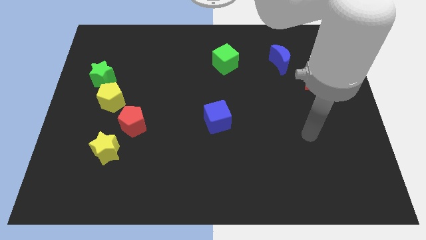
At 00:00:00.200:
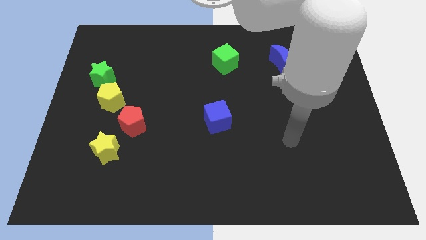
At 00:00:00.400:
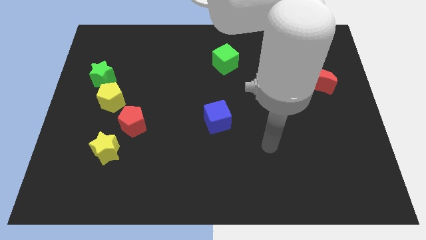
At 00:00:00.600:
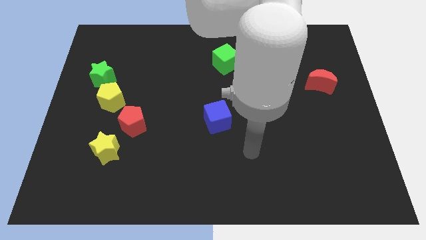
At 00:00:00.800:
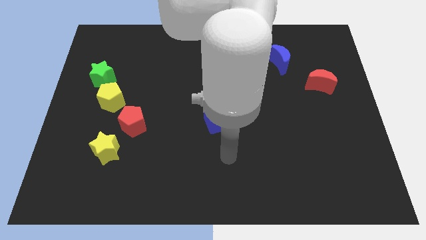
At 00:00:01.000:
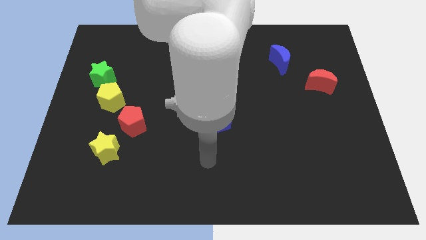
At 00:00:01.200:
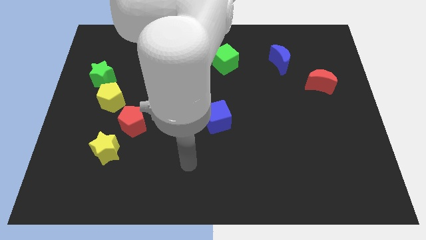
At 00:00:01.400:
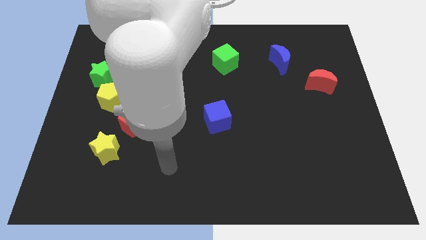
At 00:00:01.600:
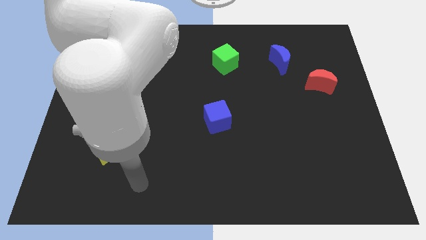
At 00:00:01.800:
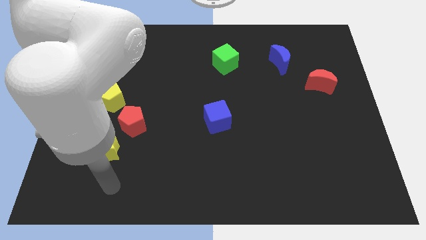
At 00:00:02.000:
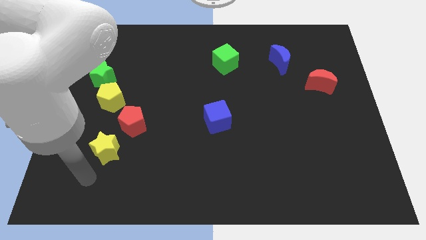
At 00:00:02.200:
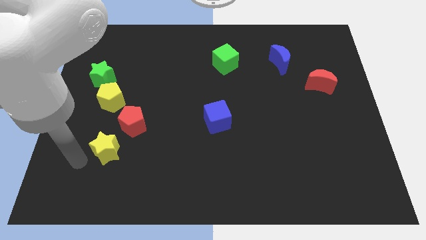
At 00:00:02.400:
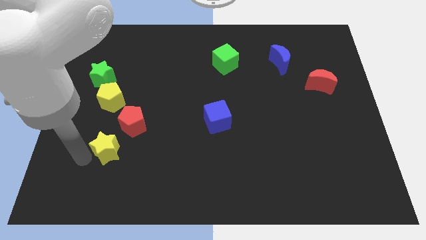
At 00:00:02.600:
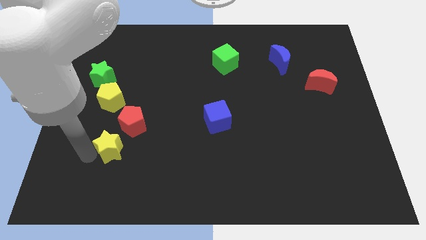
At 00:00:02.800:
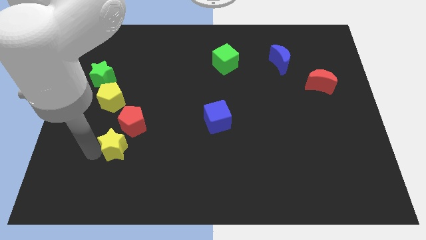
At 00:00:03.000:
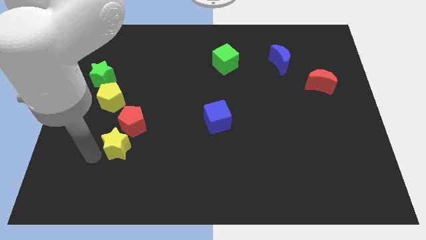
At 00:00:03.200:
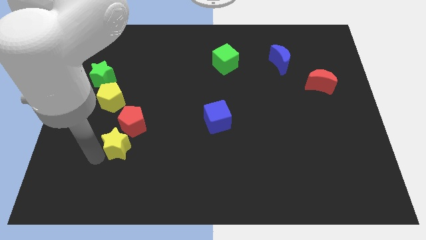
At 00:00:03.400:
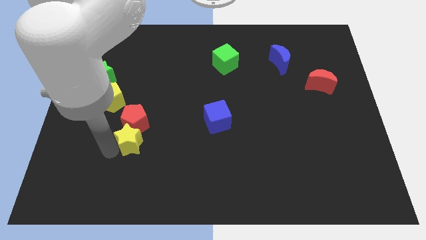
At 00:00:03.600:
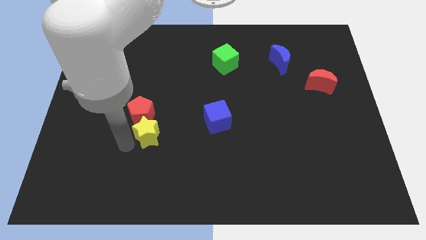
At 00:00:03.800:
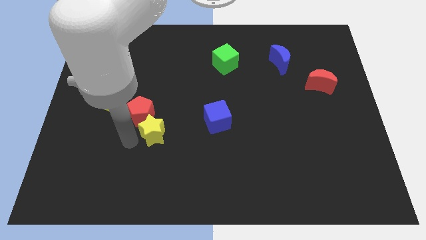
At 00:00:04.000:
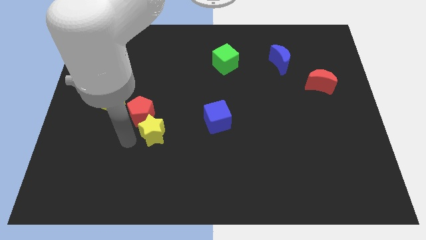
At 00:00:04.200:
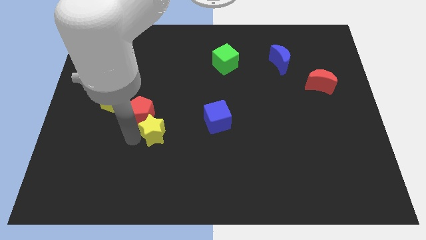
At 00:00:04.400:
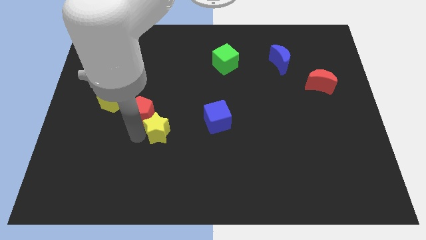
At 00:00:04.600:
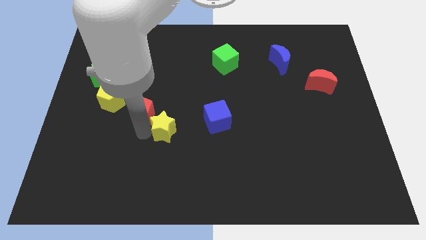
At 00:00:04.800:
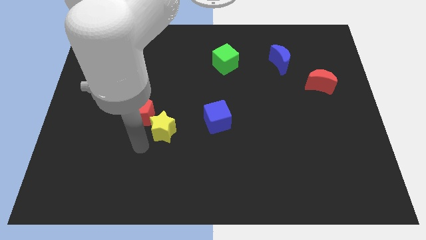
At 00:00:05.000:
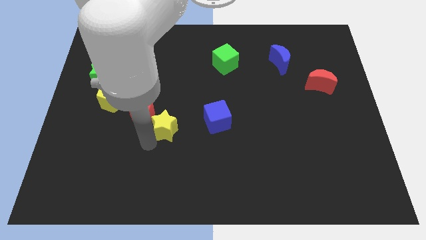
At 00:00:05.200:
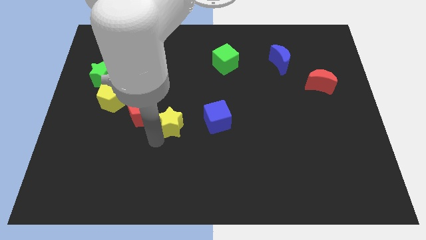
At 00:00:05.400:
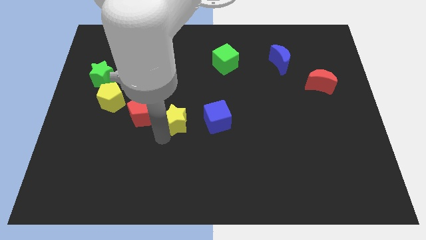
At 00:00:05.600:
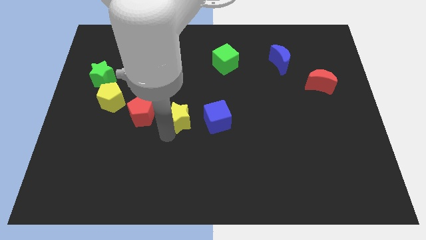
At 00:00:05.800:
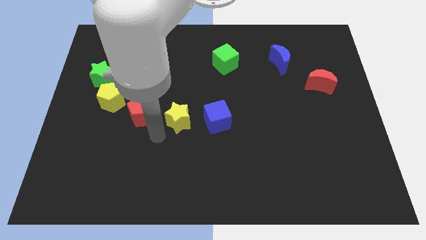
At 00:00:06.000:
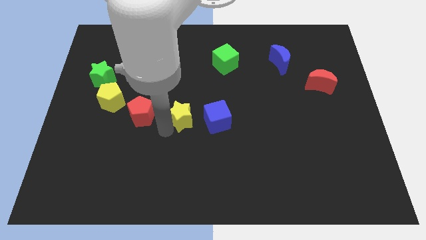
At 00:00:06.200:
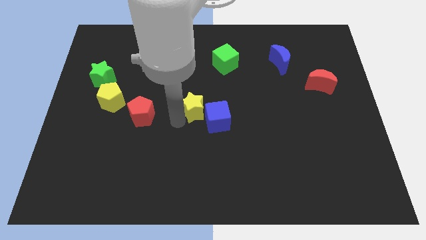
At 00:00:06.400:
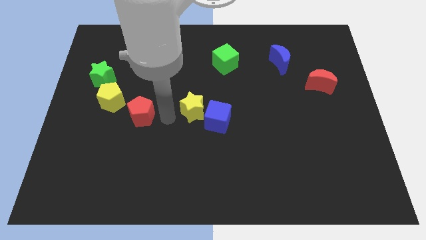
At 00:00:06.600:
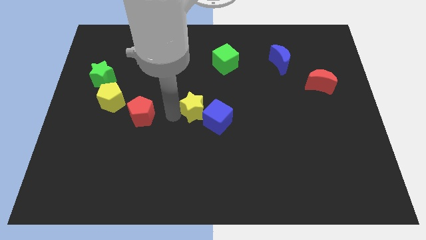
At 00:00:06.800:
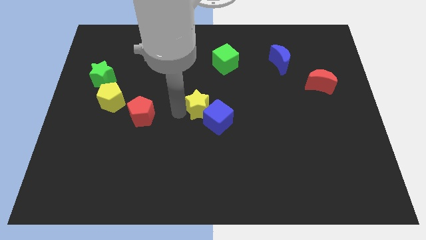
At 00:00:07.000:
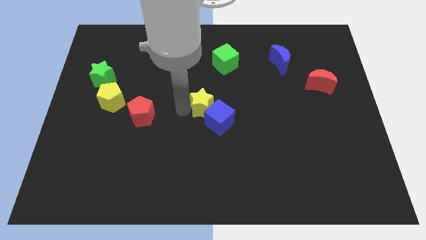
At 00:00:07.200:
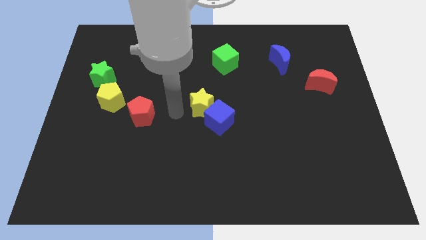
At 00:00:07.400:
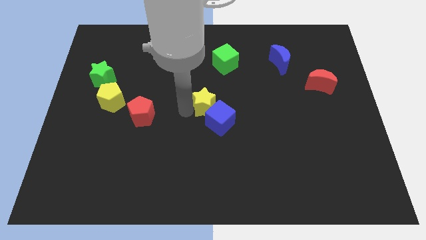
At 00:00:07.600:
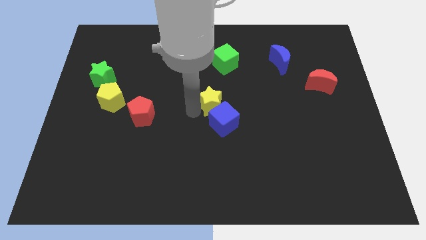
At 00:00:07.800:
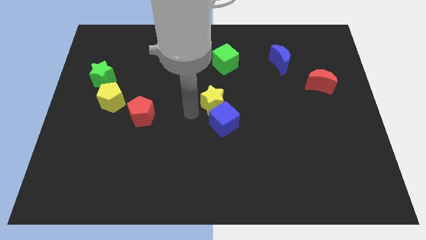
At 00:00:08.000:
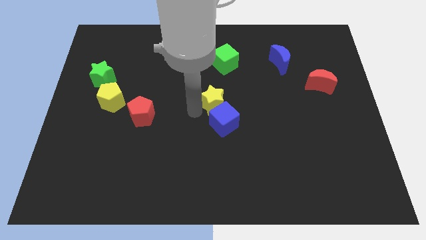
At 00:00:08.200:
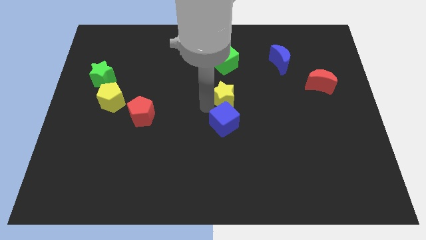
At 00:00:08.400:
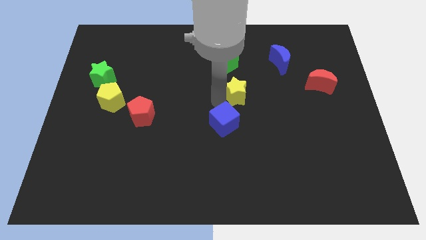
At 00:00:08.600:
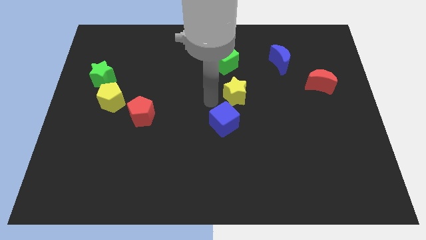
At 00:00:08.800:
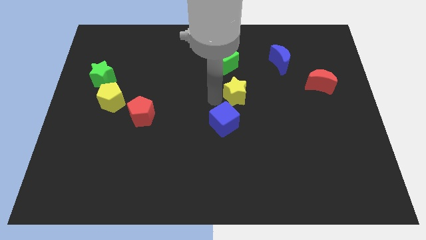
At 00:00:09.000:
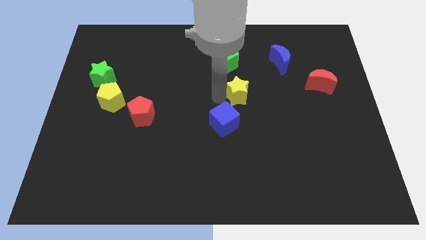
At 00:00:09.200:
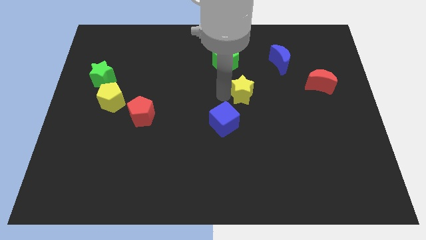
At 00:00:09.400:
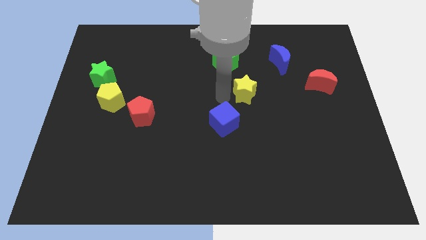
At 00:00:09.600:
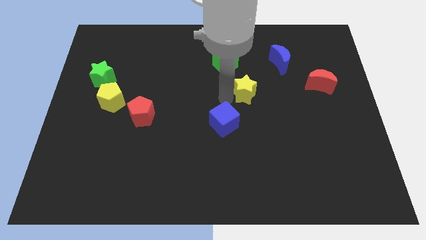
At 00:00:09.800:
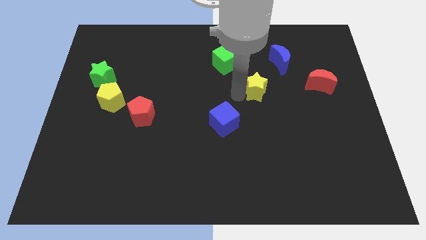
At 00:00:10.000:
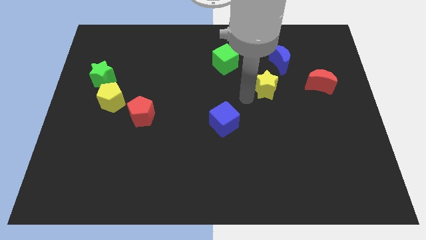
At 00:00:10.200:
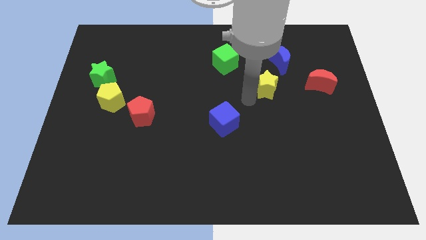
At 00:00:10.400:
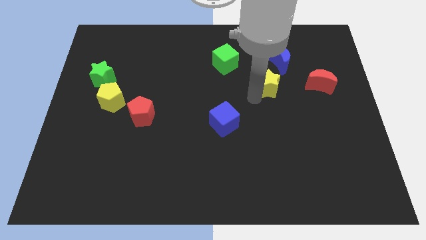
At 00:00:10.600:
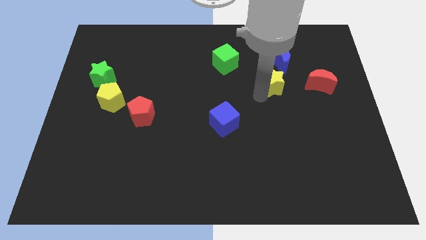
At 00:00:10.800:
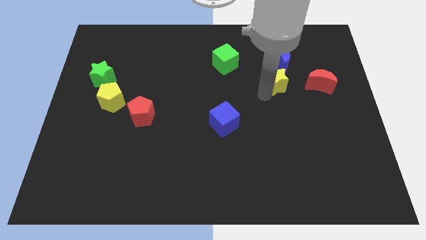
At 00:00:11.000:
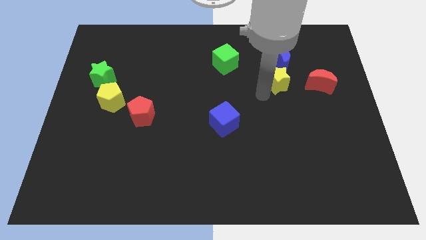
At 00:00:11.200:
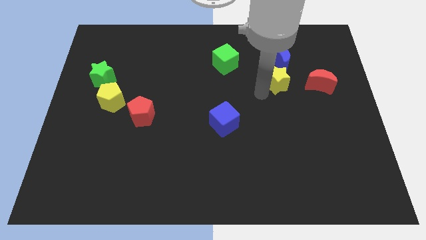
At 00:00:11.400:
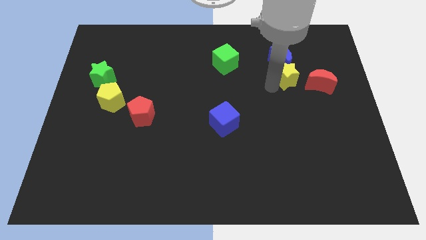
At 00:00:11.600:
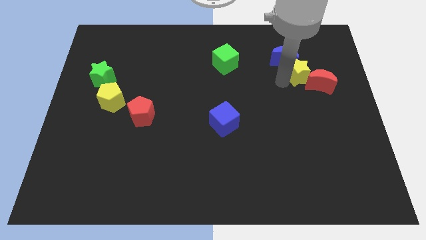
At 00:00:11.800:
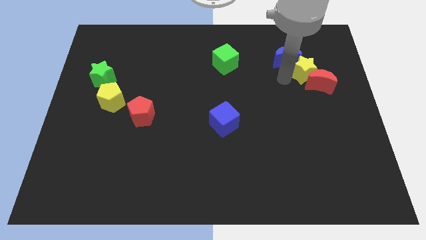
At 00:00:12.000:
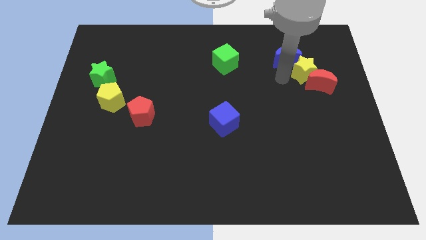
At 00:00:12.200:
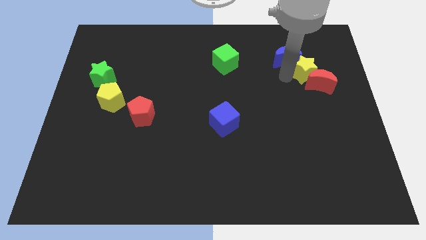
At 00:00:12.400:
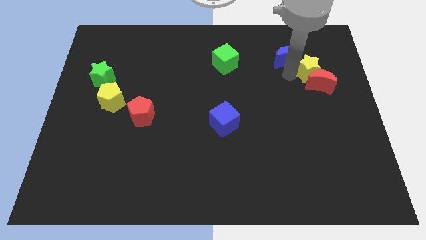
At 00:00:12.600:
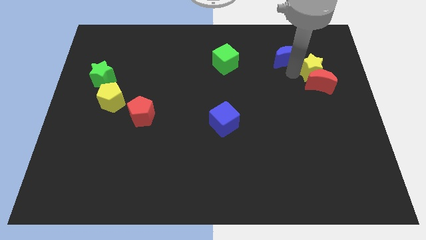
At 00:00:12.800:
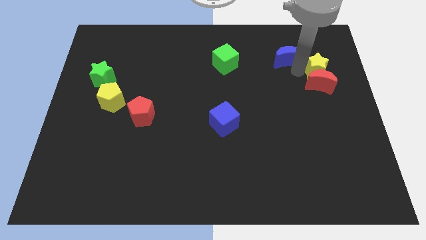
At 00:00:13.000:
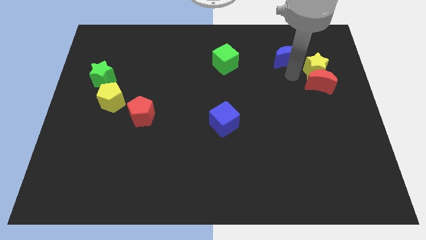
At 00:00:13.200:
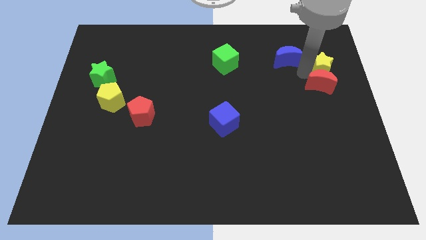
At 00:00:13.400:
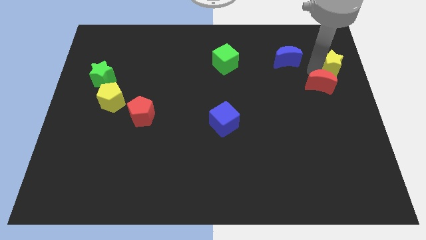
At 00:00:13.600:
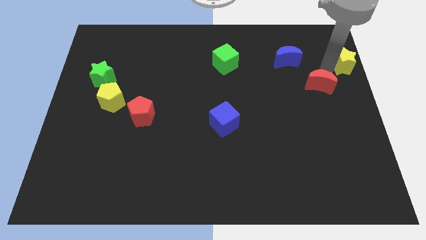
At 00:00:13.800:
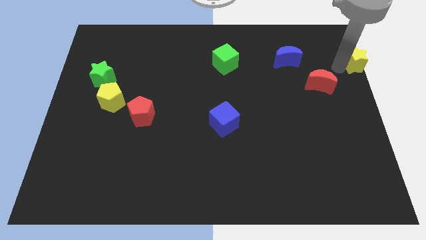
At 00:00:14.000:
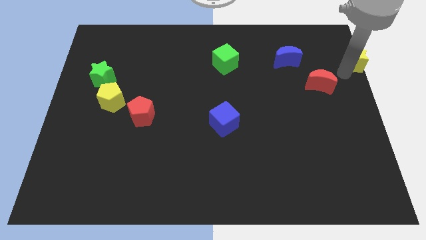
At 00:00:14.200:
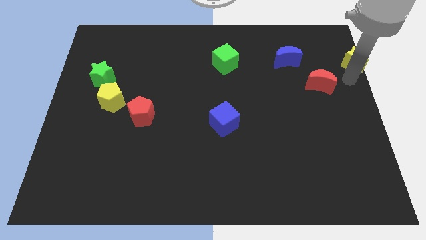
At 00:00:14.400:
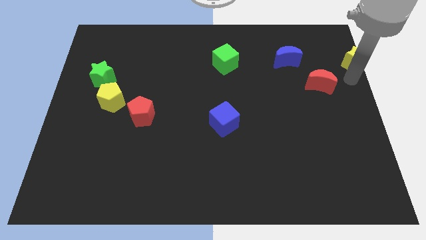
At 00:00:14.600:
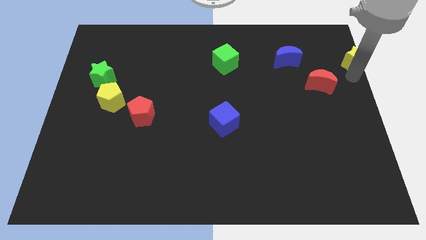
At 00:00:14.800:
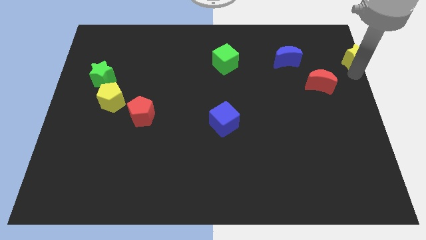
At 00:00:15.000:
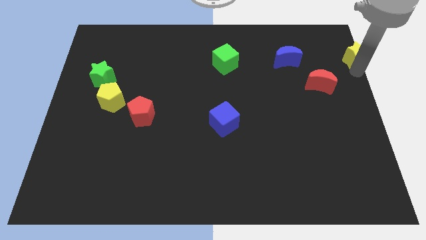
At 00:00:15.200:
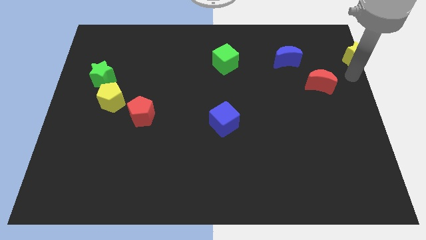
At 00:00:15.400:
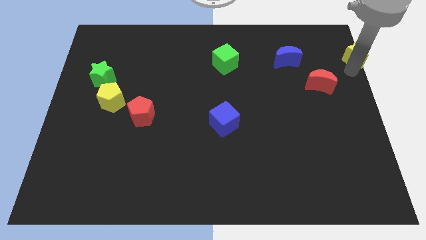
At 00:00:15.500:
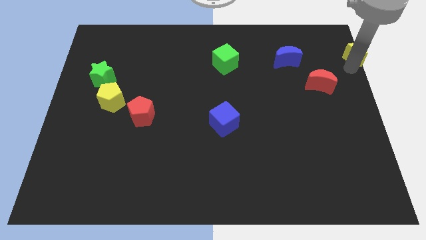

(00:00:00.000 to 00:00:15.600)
move the yellow star to the top right of the board
